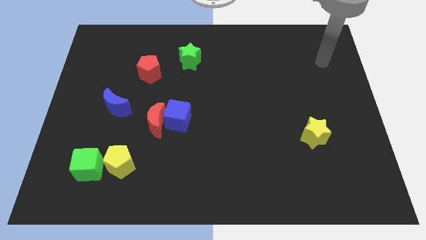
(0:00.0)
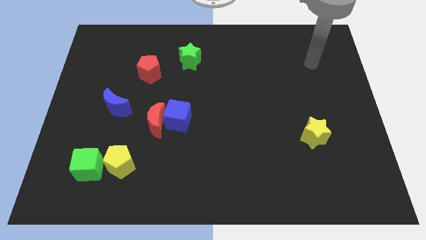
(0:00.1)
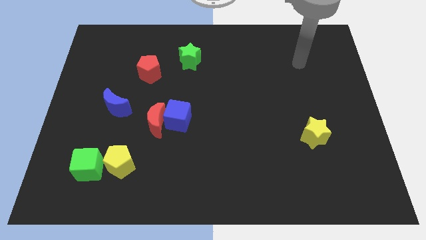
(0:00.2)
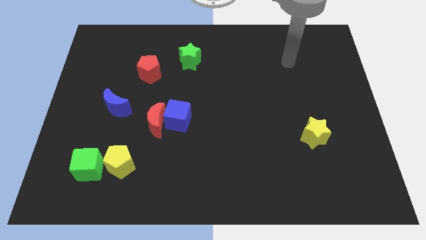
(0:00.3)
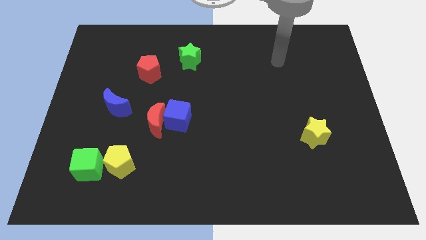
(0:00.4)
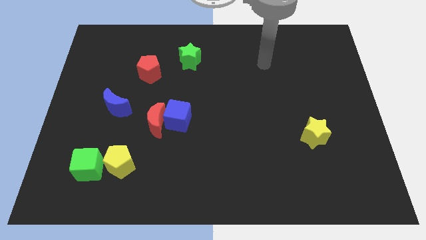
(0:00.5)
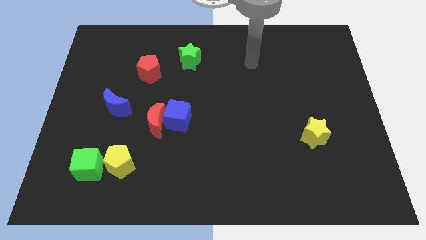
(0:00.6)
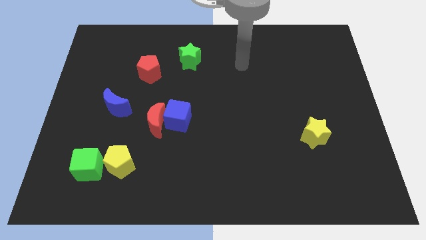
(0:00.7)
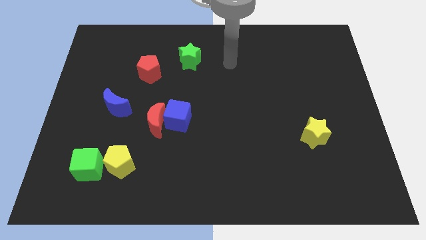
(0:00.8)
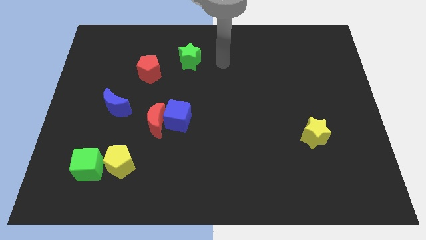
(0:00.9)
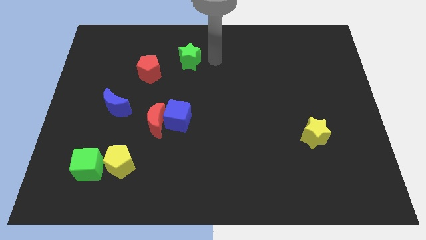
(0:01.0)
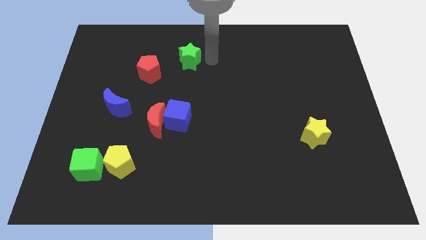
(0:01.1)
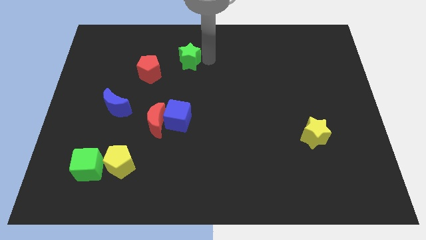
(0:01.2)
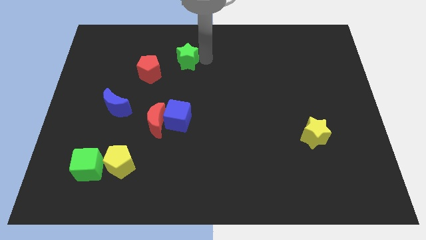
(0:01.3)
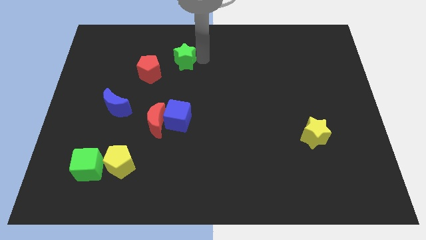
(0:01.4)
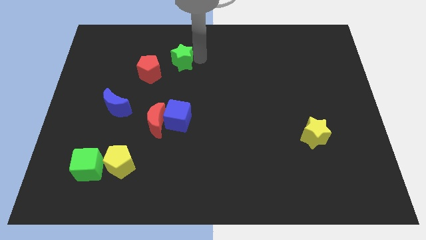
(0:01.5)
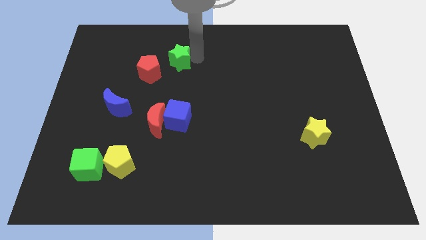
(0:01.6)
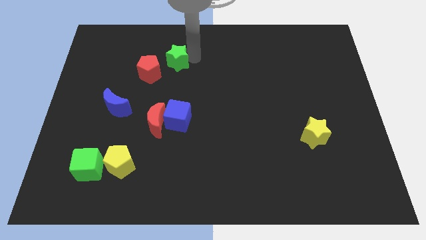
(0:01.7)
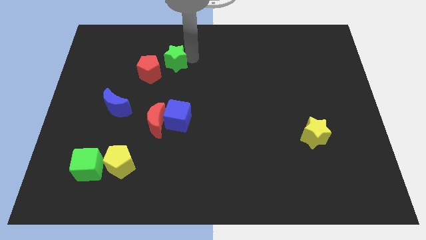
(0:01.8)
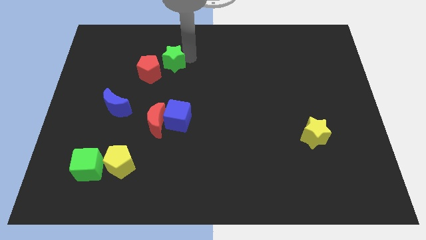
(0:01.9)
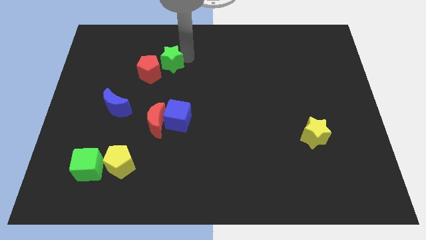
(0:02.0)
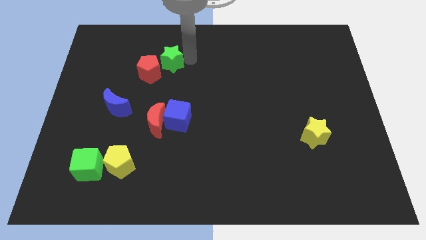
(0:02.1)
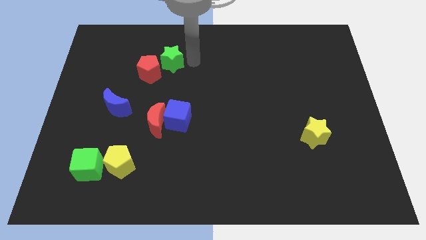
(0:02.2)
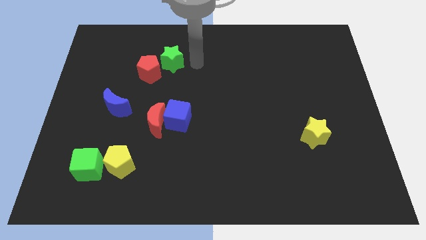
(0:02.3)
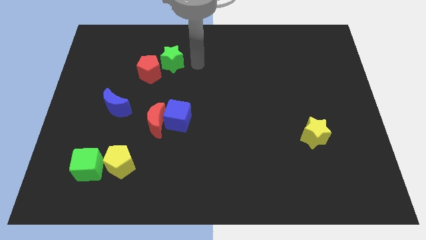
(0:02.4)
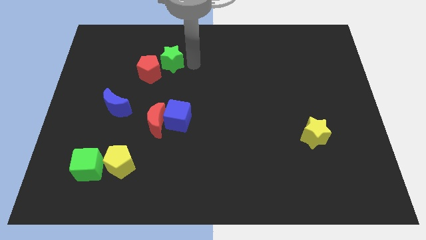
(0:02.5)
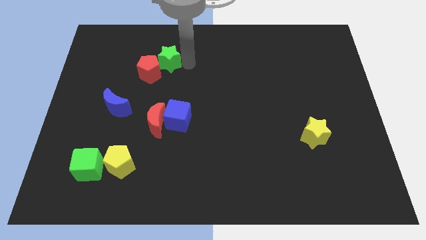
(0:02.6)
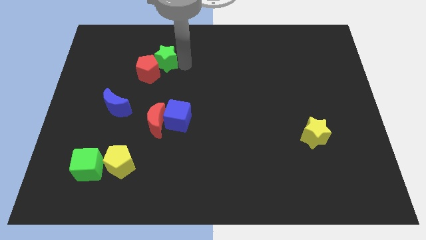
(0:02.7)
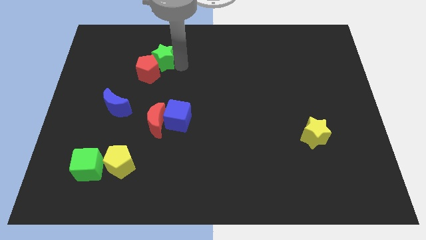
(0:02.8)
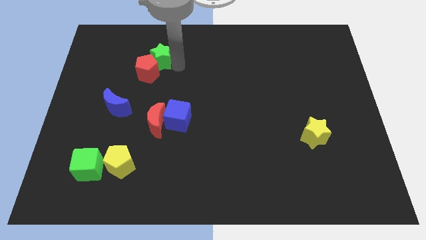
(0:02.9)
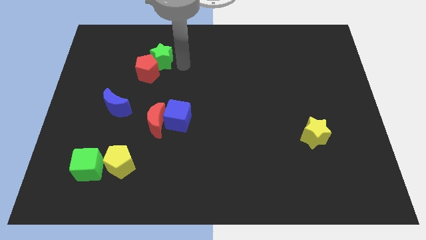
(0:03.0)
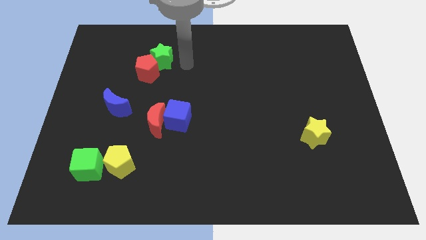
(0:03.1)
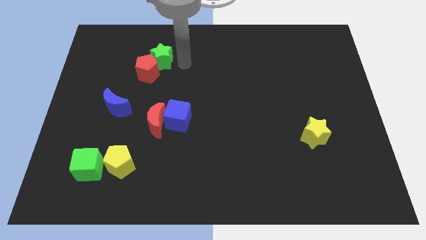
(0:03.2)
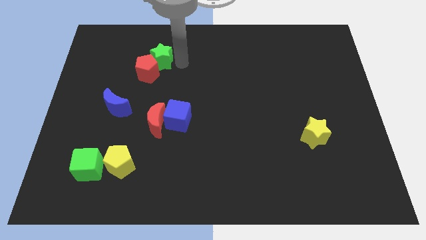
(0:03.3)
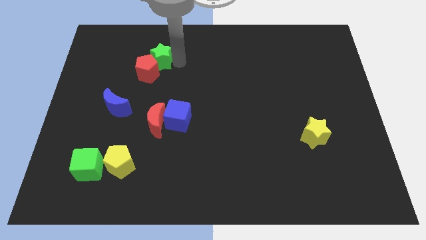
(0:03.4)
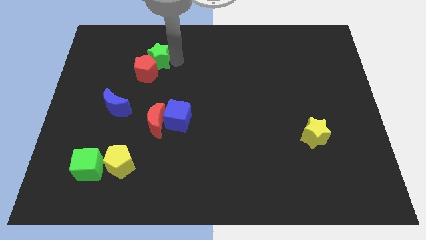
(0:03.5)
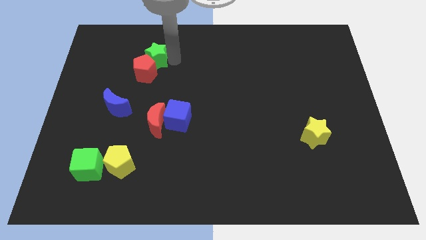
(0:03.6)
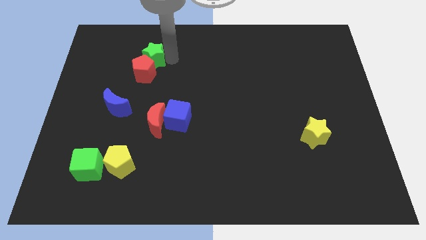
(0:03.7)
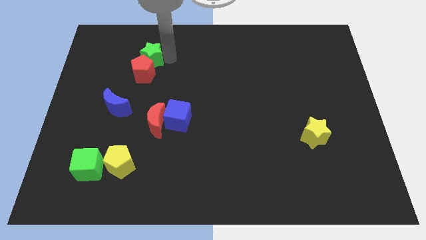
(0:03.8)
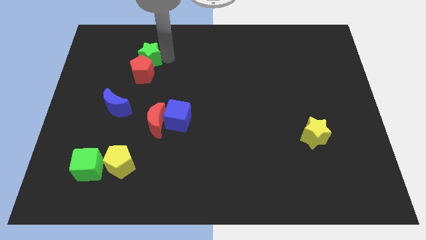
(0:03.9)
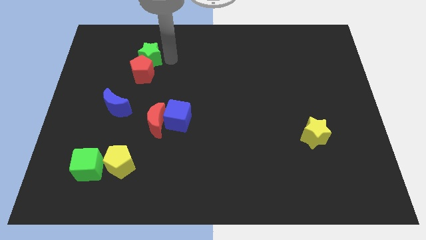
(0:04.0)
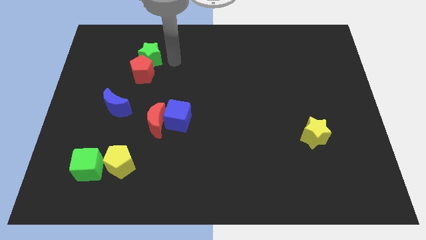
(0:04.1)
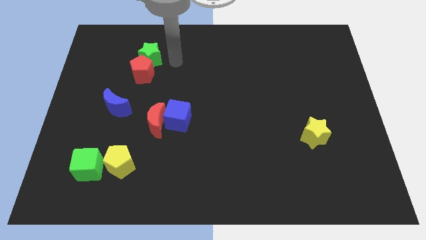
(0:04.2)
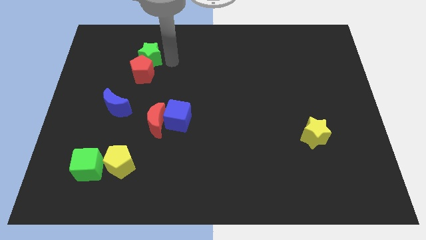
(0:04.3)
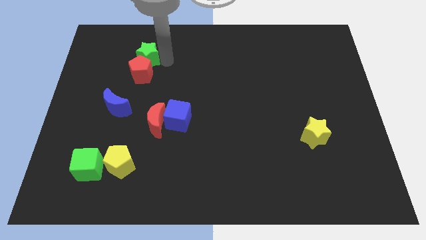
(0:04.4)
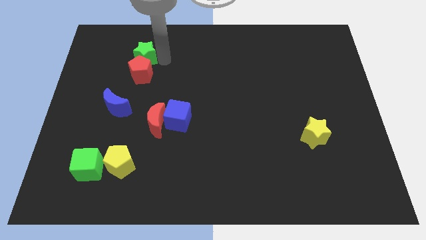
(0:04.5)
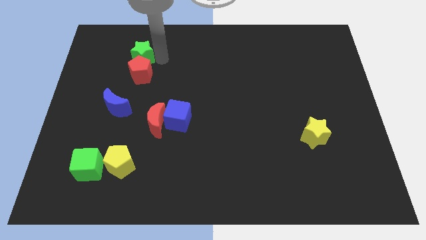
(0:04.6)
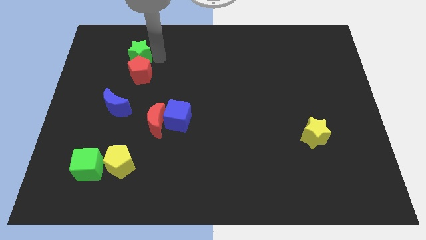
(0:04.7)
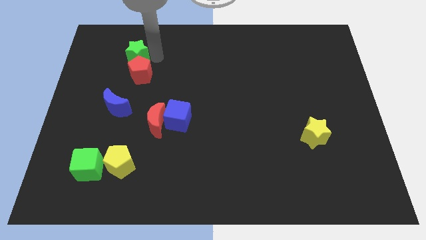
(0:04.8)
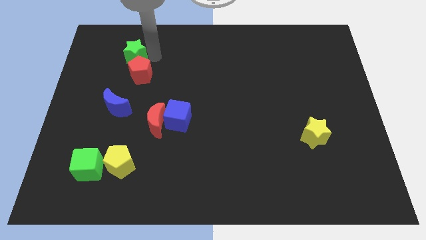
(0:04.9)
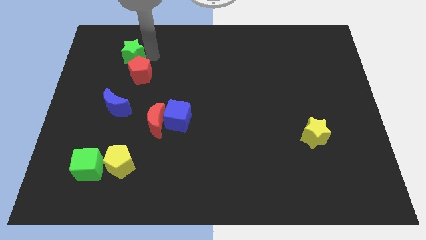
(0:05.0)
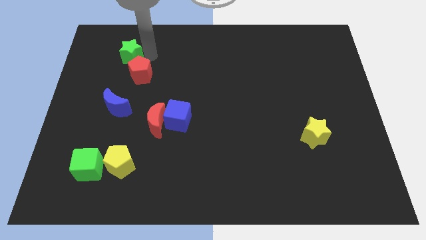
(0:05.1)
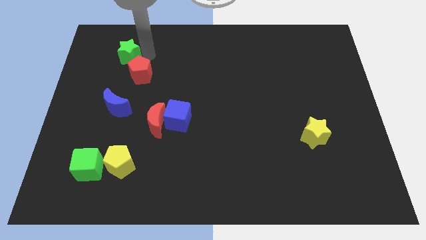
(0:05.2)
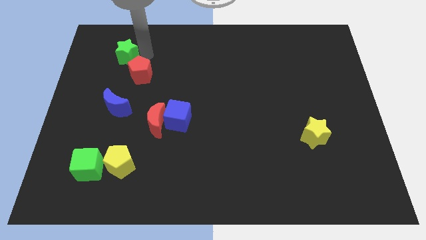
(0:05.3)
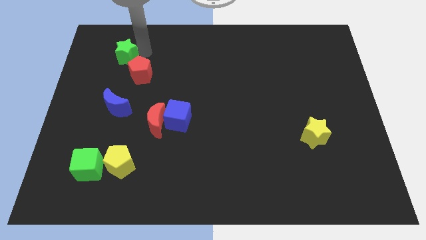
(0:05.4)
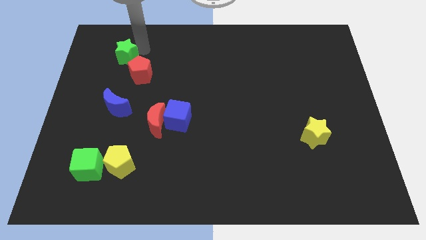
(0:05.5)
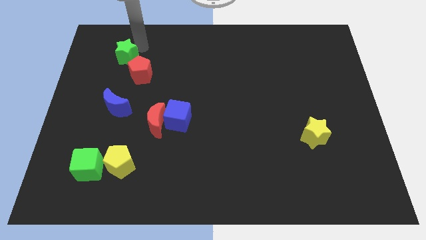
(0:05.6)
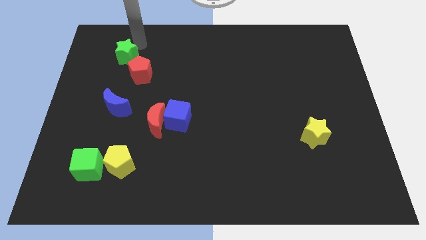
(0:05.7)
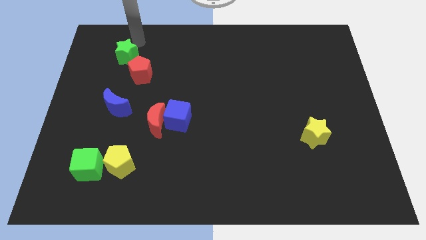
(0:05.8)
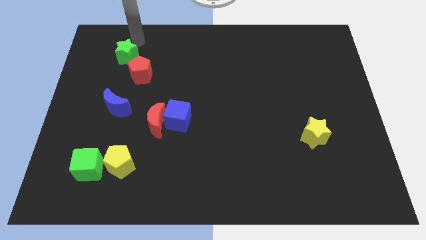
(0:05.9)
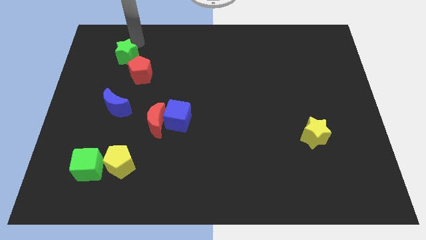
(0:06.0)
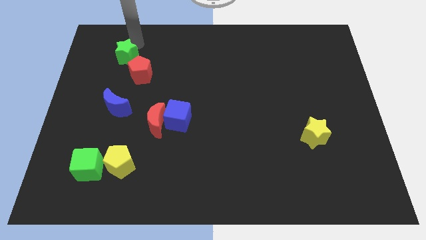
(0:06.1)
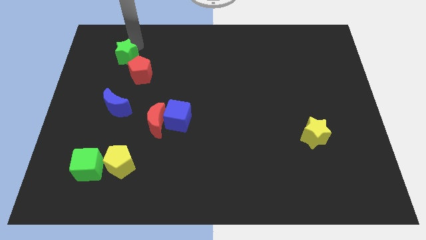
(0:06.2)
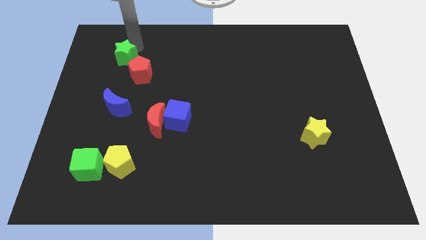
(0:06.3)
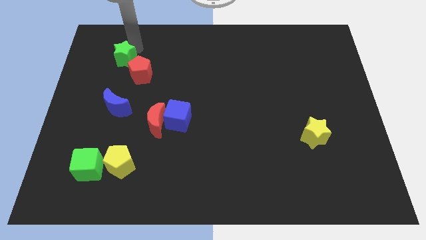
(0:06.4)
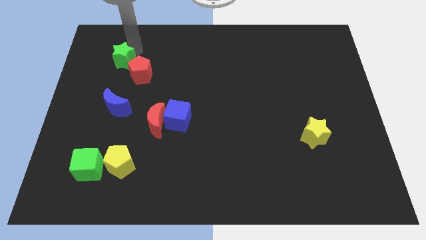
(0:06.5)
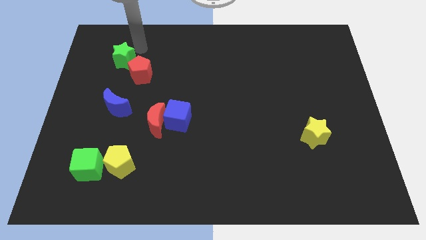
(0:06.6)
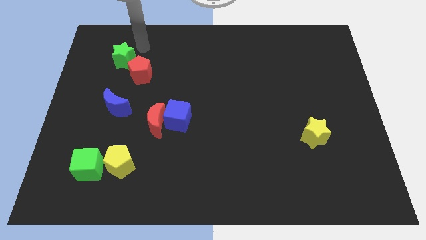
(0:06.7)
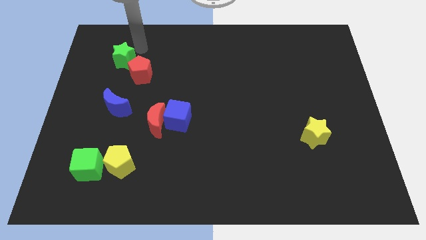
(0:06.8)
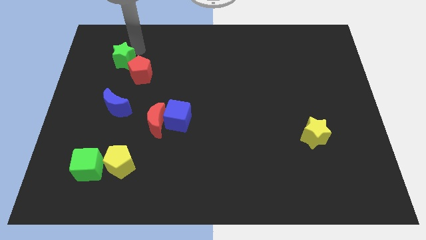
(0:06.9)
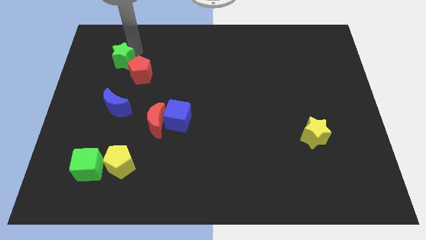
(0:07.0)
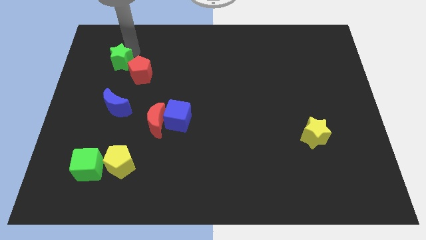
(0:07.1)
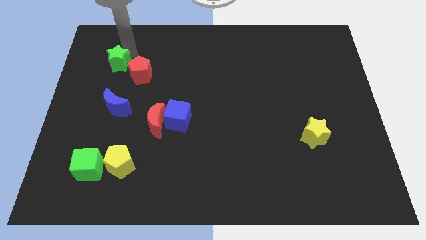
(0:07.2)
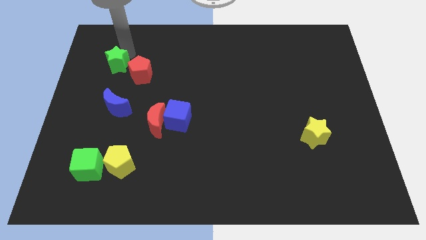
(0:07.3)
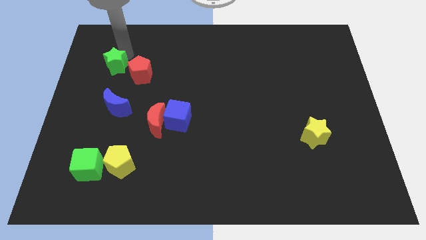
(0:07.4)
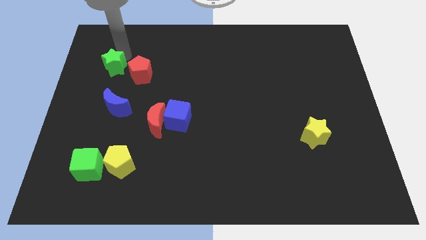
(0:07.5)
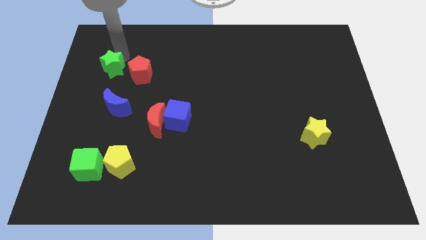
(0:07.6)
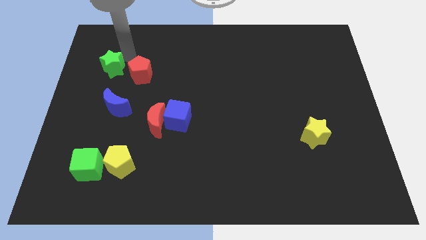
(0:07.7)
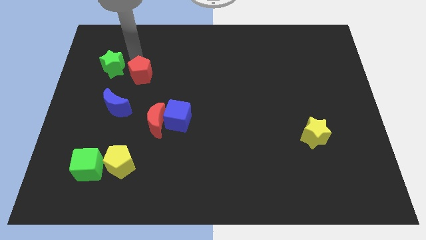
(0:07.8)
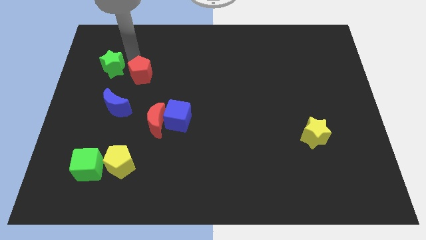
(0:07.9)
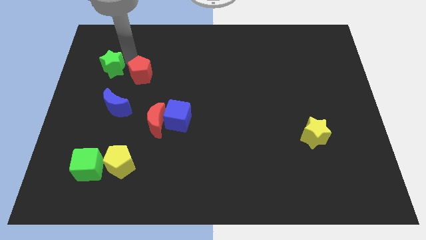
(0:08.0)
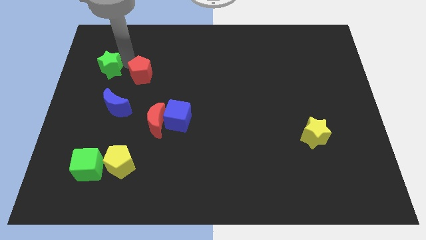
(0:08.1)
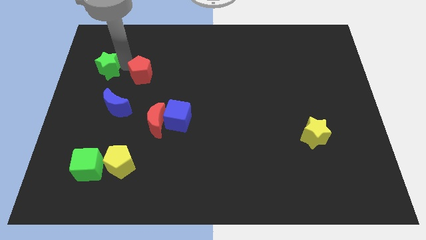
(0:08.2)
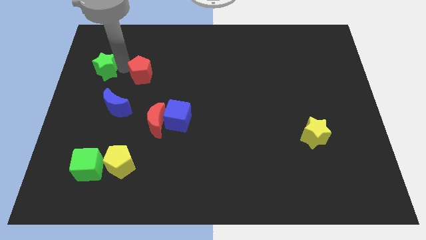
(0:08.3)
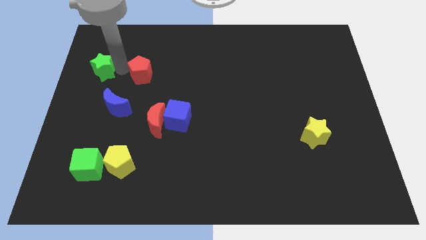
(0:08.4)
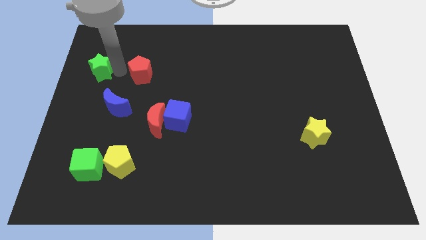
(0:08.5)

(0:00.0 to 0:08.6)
slide the green star to the center left
